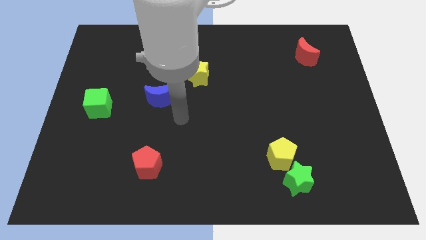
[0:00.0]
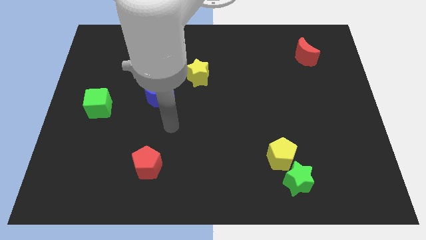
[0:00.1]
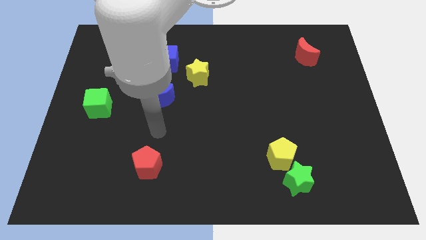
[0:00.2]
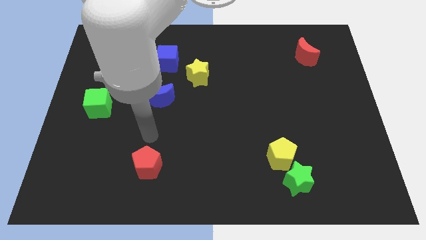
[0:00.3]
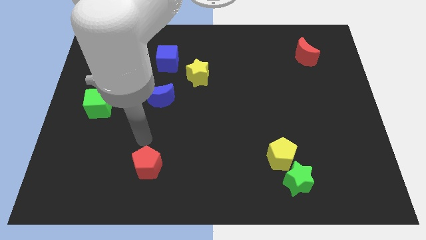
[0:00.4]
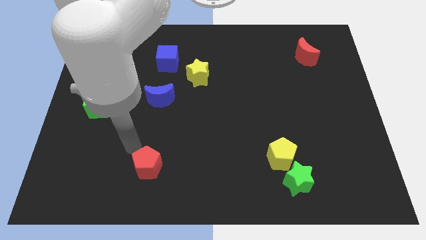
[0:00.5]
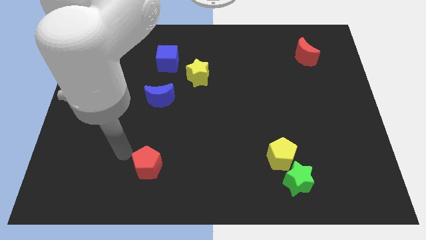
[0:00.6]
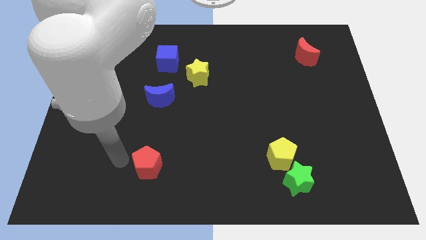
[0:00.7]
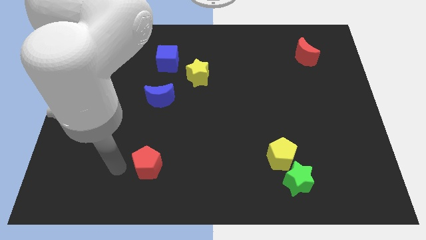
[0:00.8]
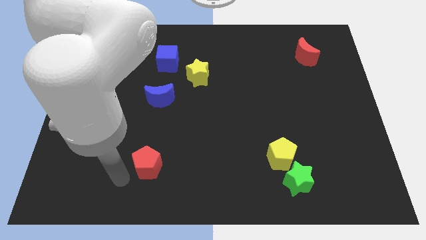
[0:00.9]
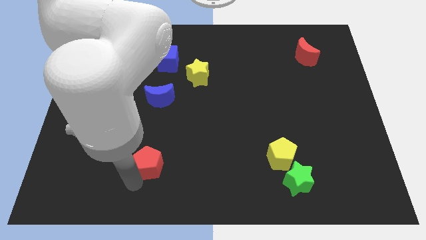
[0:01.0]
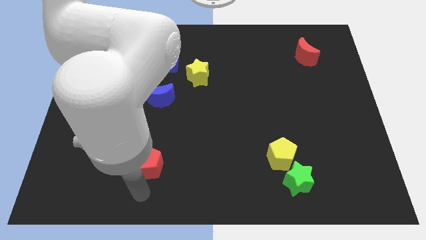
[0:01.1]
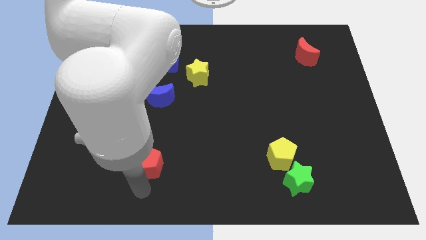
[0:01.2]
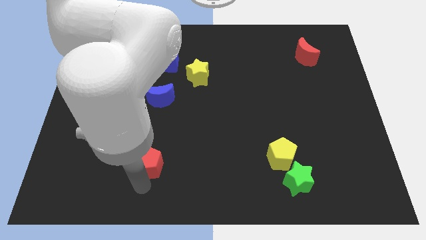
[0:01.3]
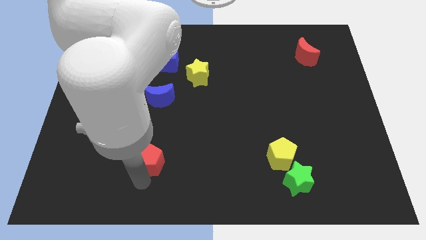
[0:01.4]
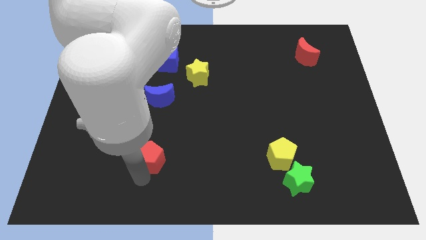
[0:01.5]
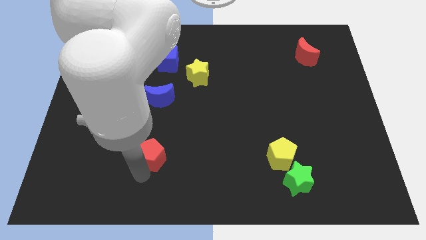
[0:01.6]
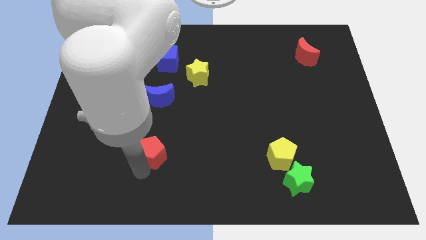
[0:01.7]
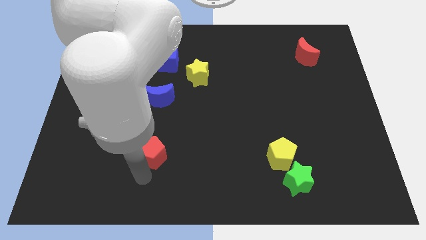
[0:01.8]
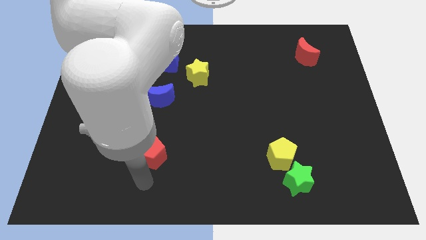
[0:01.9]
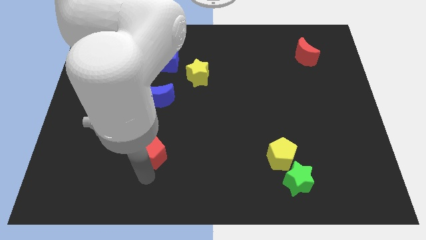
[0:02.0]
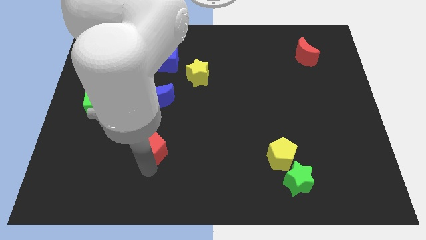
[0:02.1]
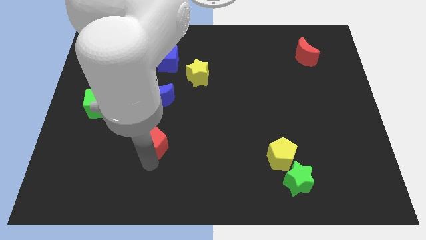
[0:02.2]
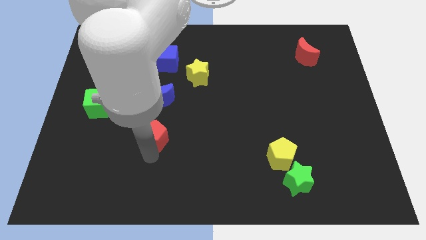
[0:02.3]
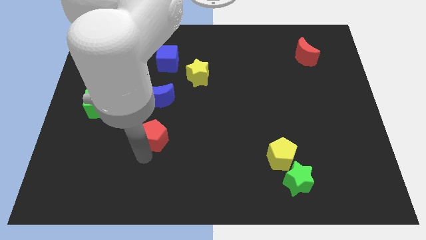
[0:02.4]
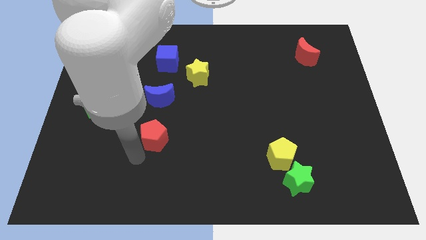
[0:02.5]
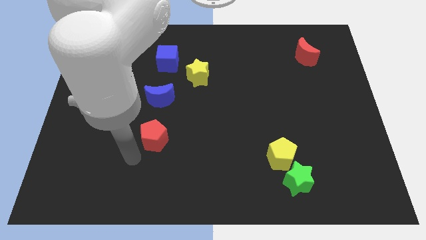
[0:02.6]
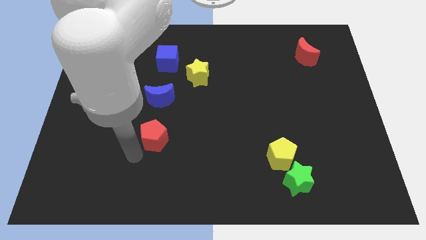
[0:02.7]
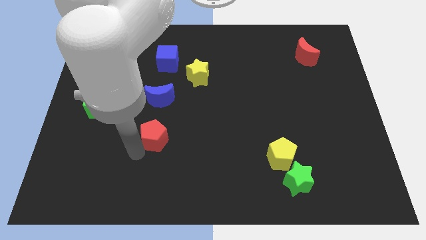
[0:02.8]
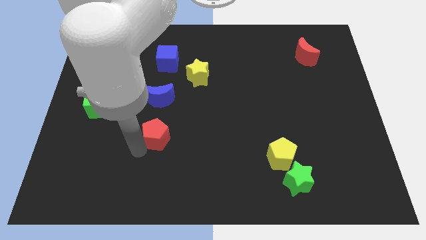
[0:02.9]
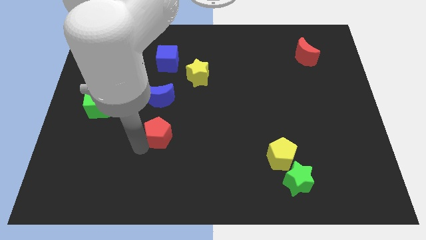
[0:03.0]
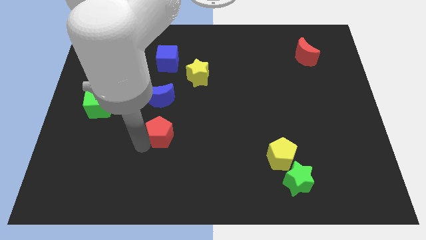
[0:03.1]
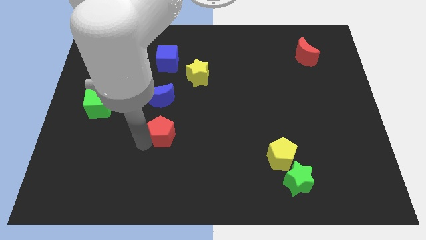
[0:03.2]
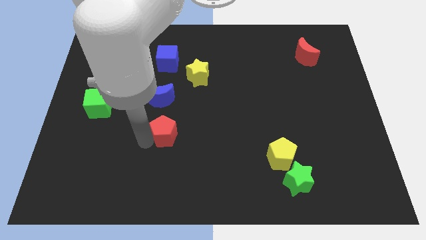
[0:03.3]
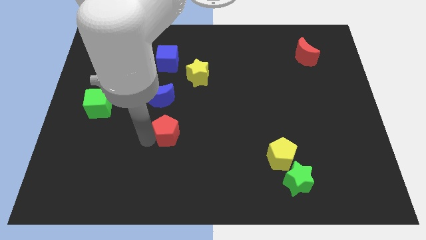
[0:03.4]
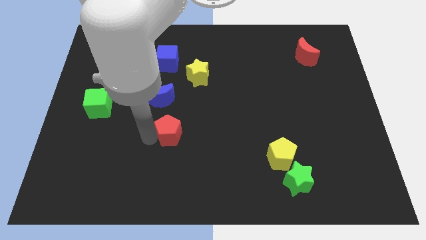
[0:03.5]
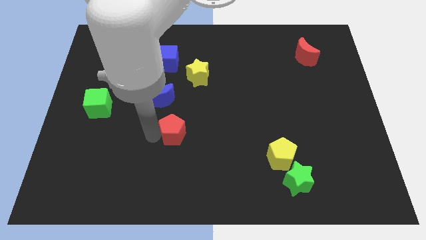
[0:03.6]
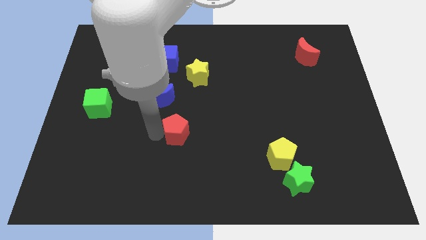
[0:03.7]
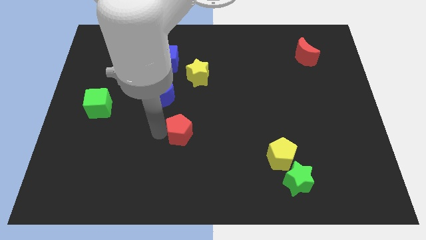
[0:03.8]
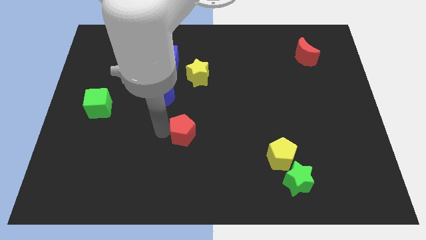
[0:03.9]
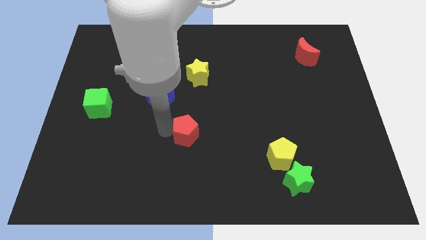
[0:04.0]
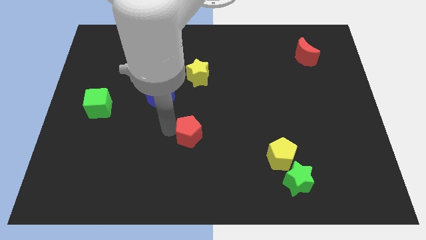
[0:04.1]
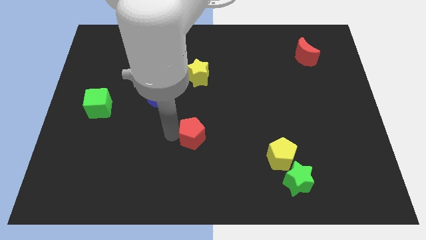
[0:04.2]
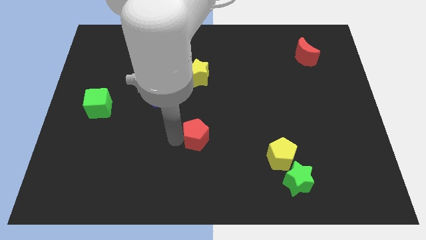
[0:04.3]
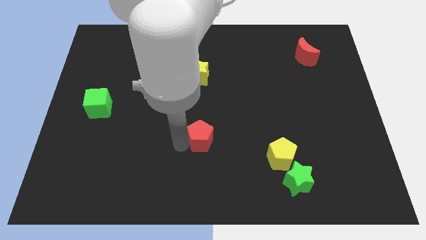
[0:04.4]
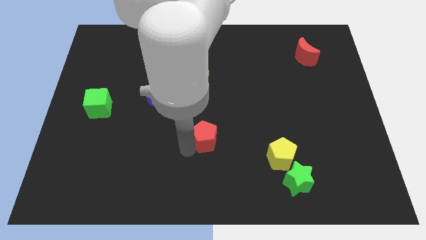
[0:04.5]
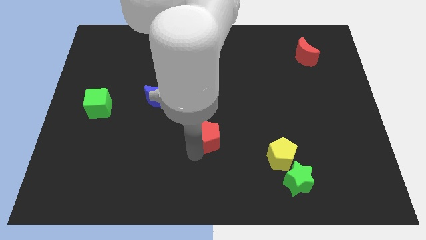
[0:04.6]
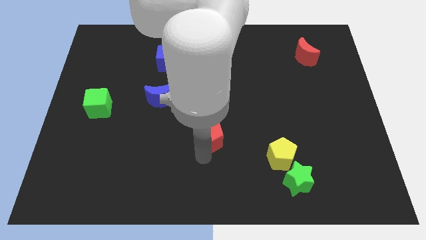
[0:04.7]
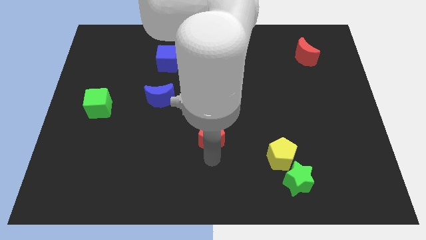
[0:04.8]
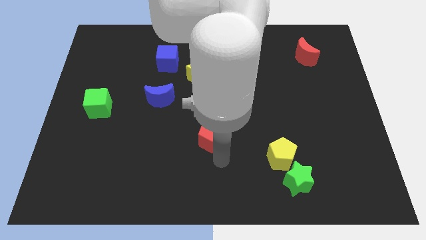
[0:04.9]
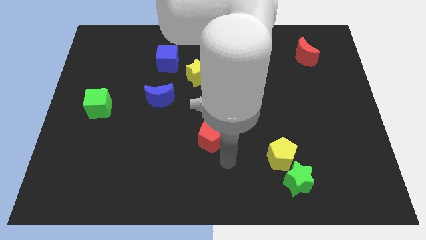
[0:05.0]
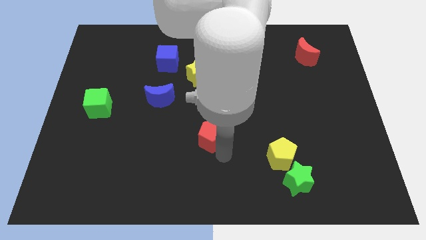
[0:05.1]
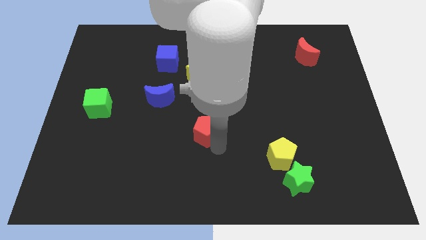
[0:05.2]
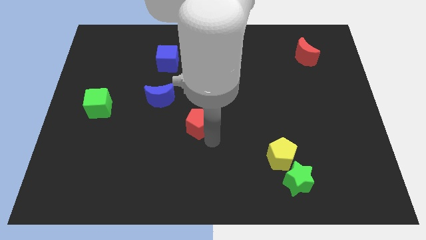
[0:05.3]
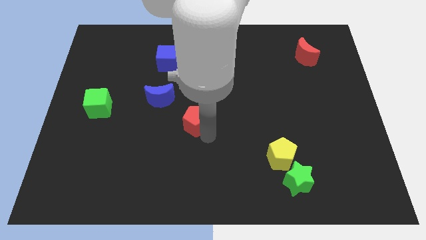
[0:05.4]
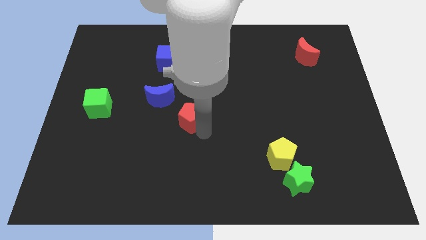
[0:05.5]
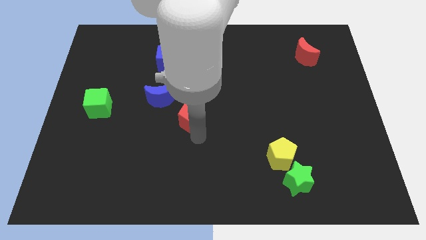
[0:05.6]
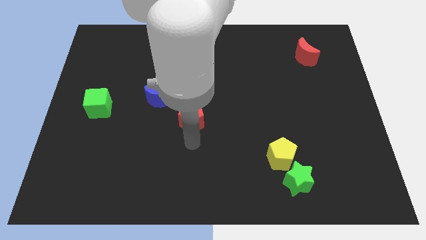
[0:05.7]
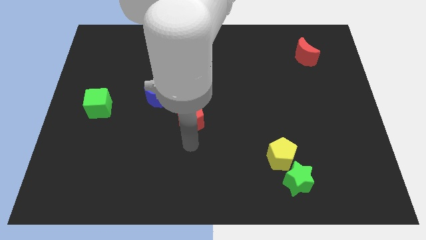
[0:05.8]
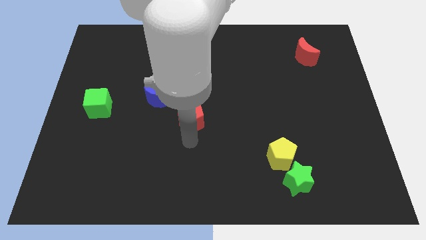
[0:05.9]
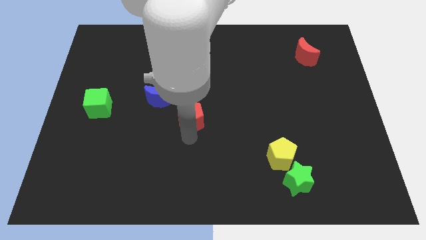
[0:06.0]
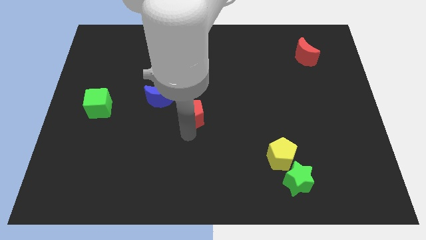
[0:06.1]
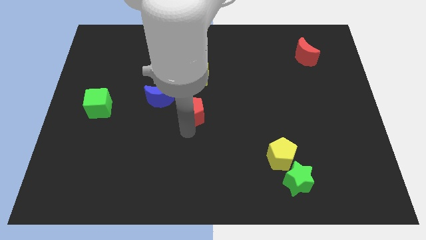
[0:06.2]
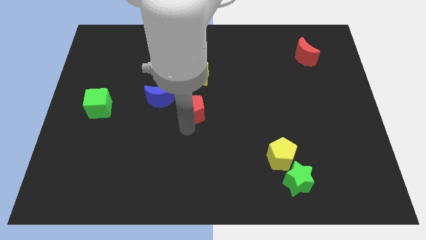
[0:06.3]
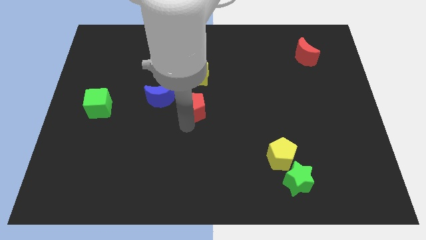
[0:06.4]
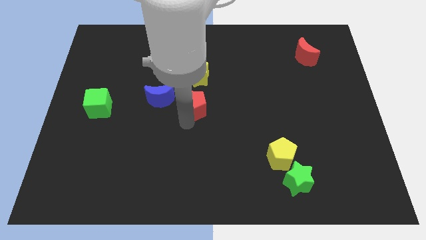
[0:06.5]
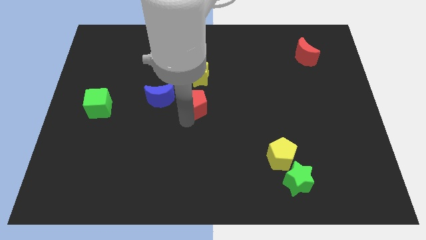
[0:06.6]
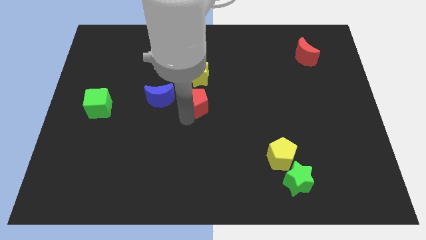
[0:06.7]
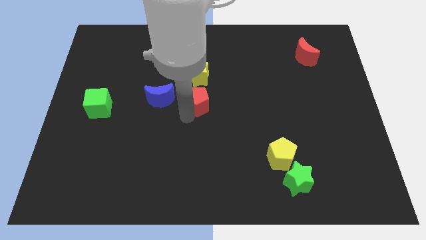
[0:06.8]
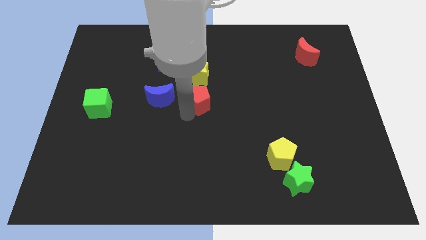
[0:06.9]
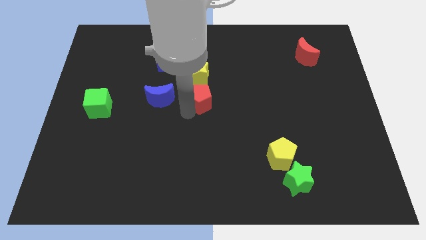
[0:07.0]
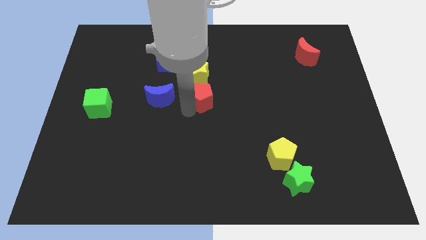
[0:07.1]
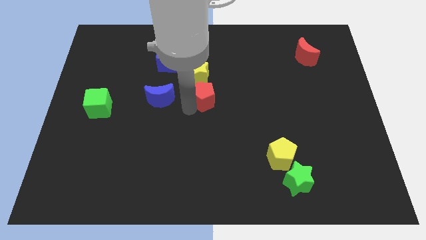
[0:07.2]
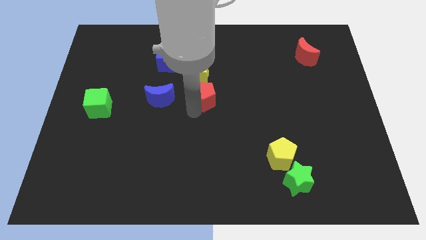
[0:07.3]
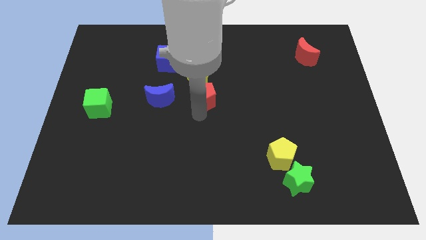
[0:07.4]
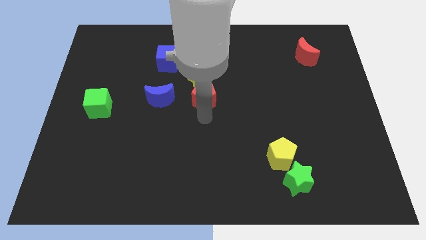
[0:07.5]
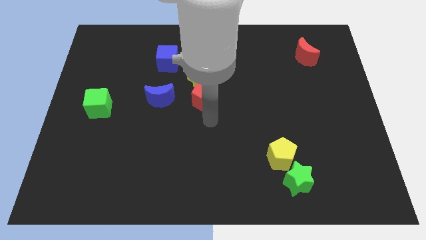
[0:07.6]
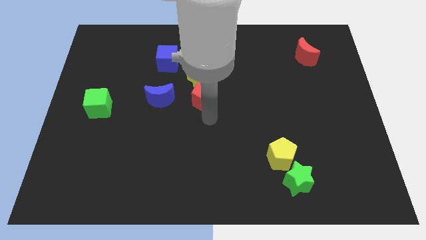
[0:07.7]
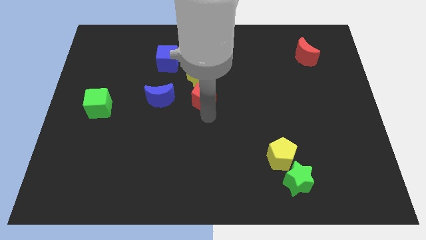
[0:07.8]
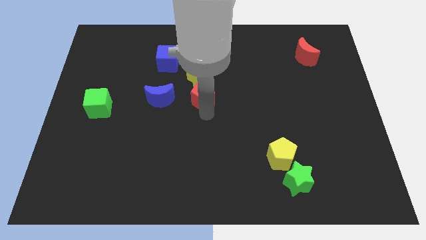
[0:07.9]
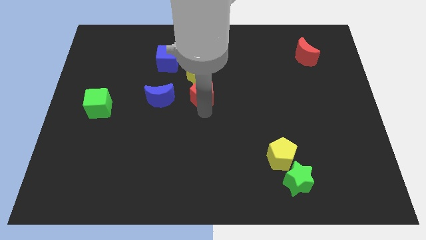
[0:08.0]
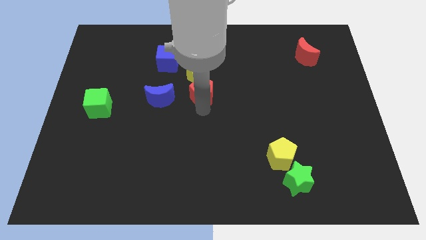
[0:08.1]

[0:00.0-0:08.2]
push the red pentagon to the yellow star
